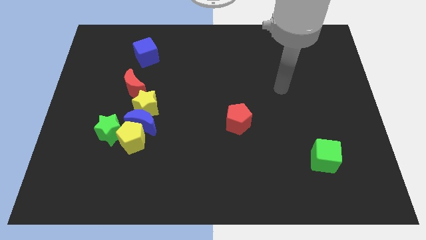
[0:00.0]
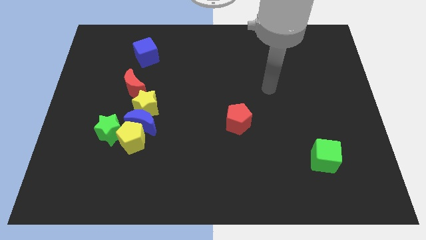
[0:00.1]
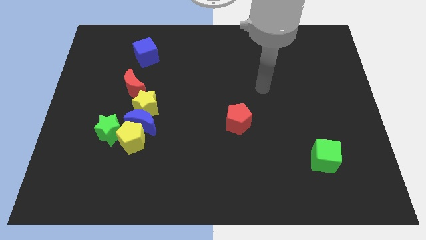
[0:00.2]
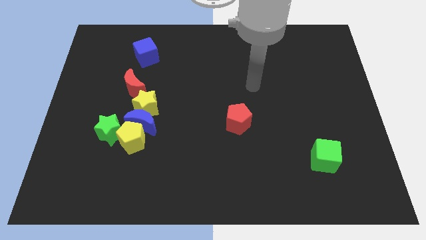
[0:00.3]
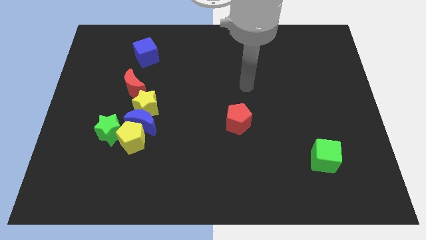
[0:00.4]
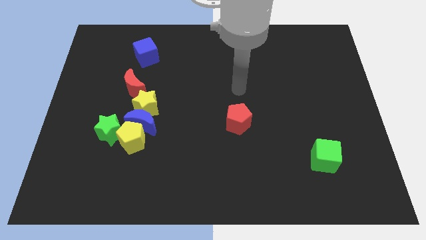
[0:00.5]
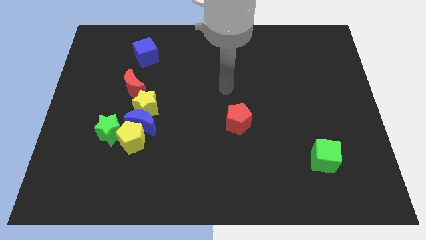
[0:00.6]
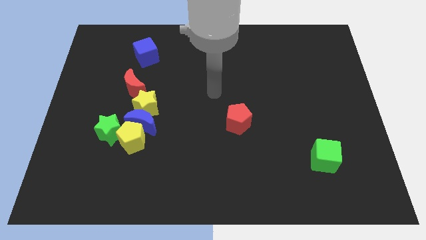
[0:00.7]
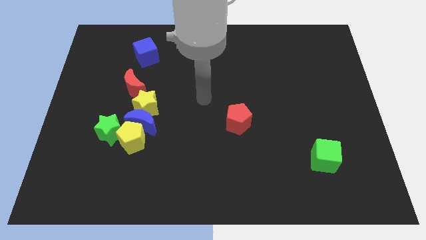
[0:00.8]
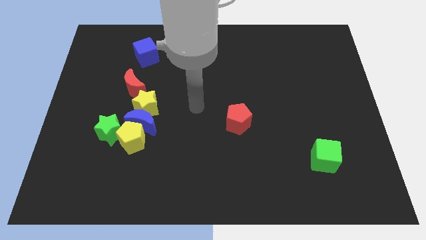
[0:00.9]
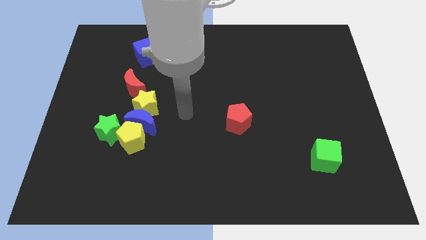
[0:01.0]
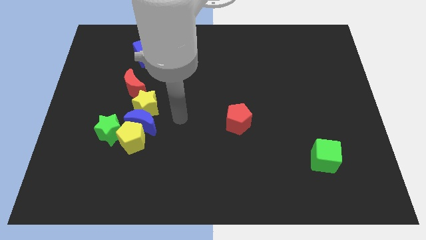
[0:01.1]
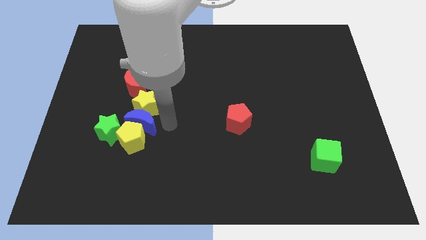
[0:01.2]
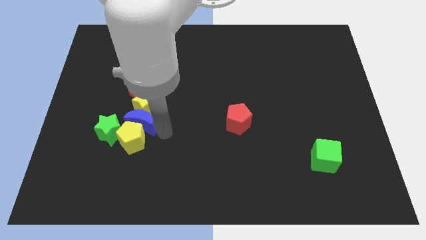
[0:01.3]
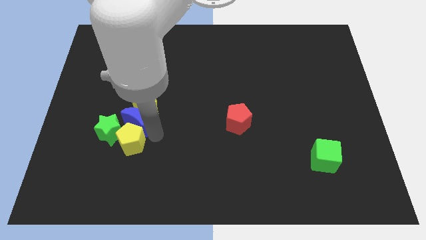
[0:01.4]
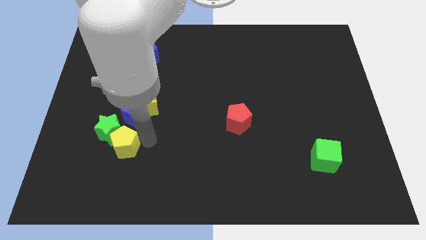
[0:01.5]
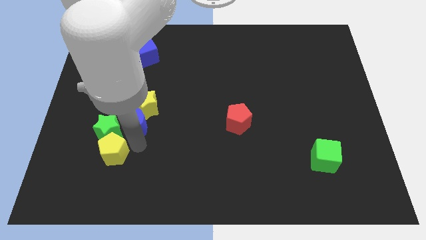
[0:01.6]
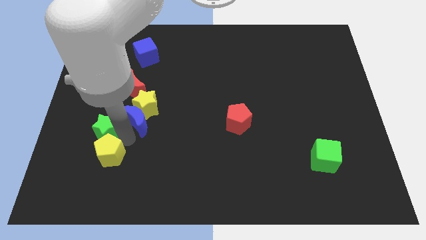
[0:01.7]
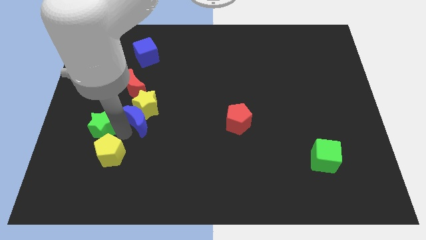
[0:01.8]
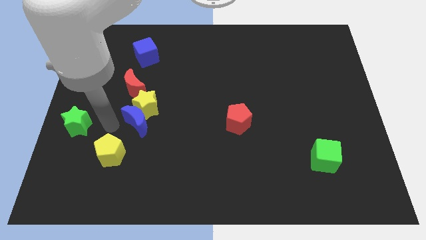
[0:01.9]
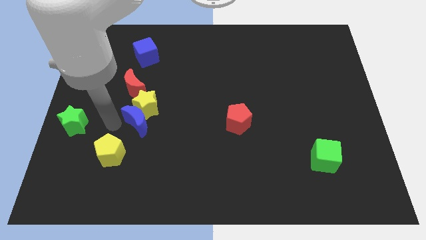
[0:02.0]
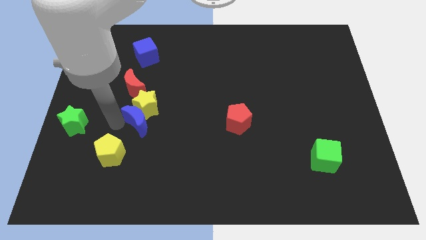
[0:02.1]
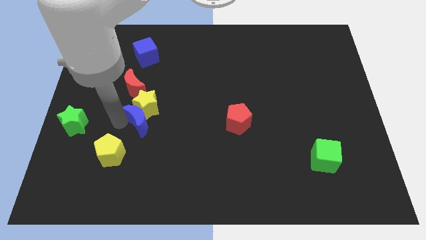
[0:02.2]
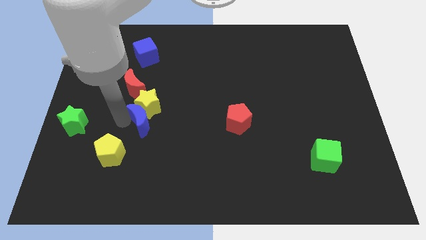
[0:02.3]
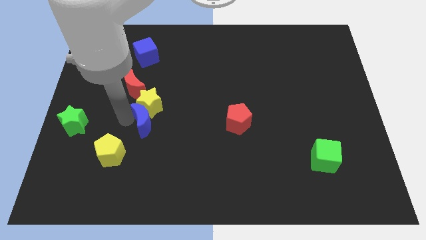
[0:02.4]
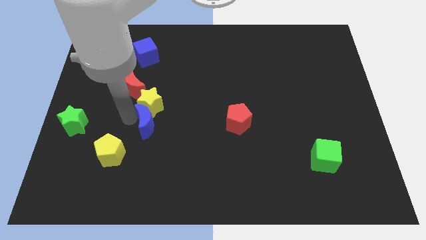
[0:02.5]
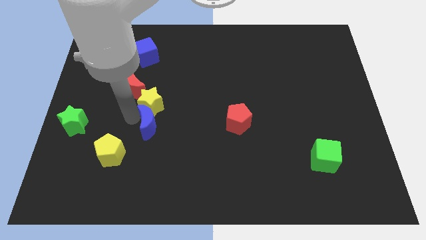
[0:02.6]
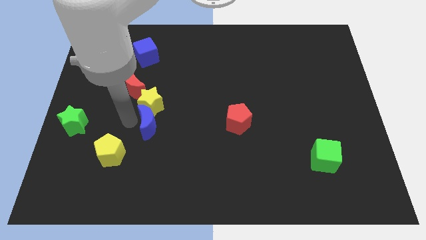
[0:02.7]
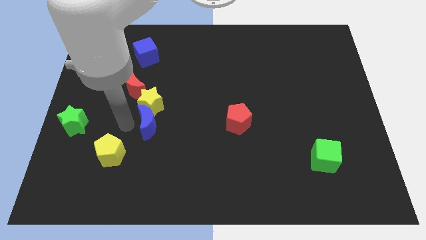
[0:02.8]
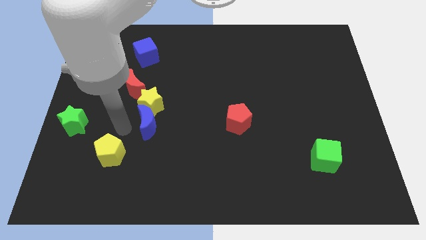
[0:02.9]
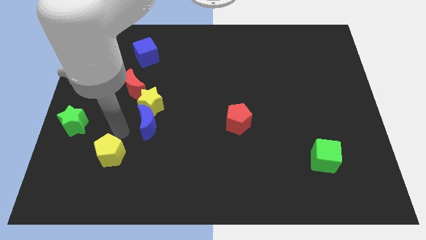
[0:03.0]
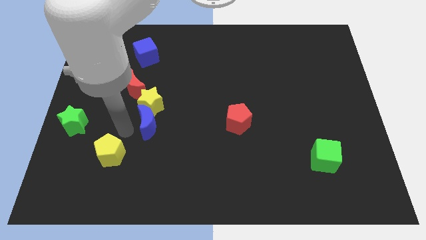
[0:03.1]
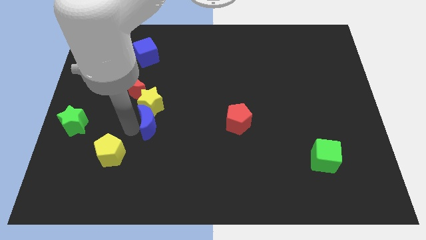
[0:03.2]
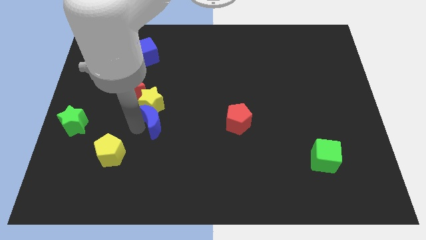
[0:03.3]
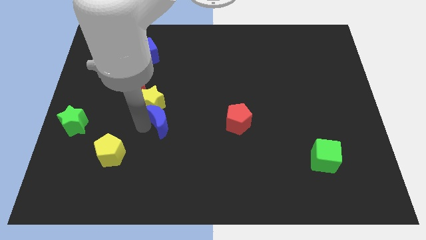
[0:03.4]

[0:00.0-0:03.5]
separate the blue moon from the yellow pentagon, yellow star, and green star

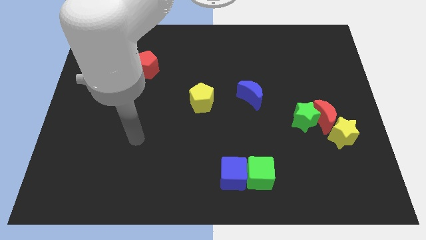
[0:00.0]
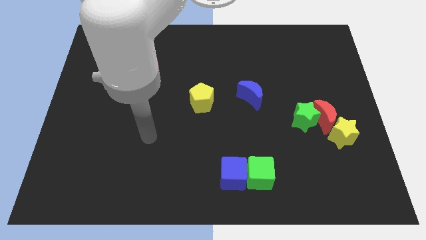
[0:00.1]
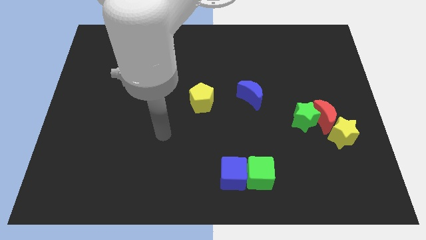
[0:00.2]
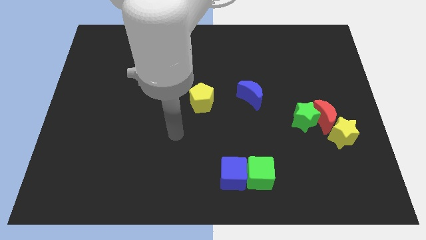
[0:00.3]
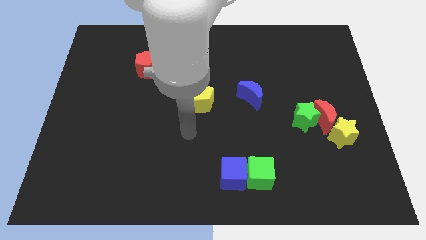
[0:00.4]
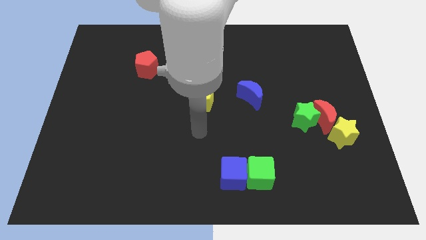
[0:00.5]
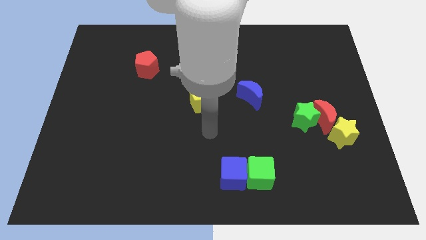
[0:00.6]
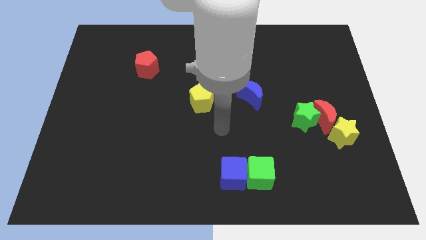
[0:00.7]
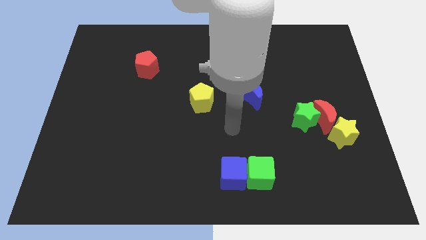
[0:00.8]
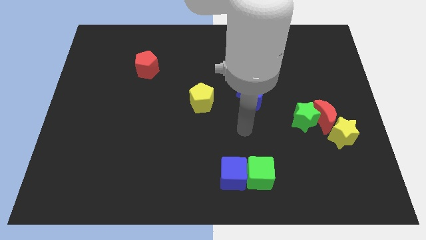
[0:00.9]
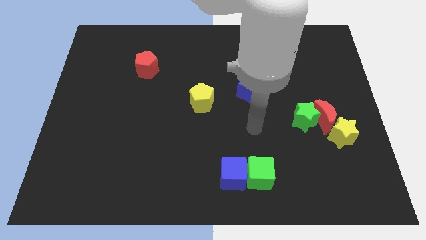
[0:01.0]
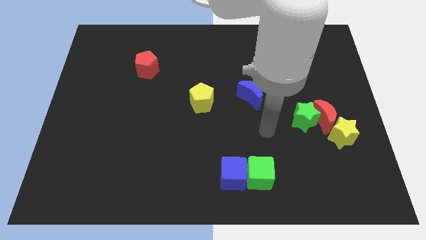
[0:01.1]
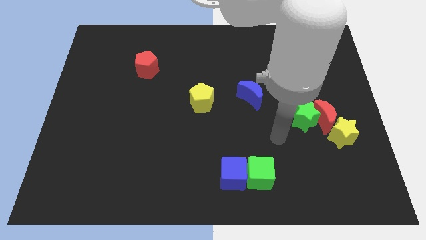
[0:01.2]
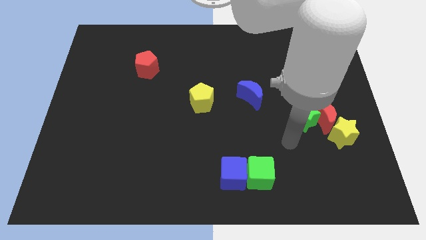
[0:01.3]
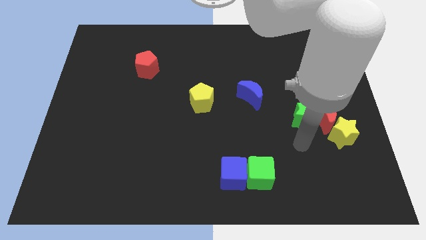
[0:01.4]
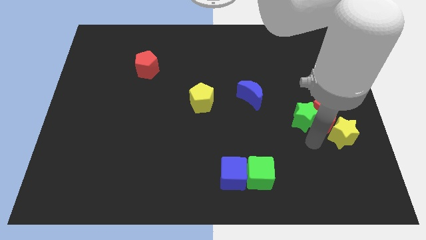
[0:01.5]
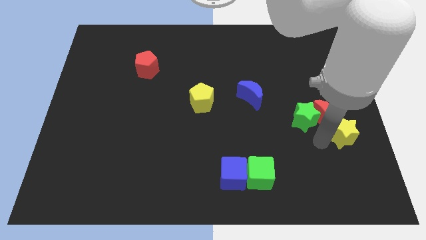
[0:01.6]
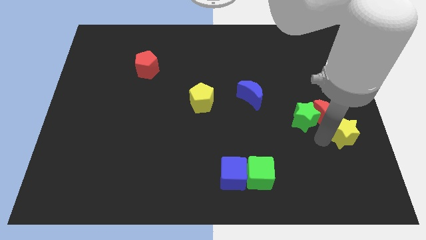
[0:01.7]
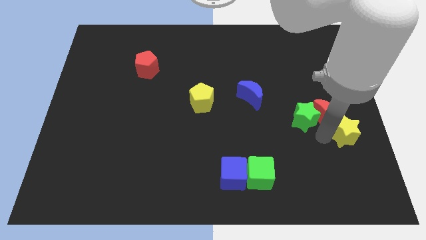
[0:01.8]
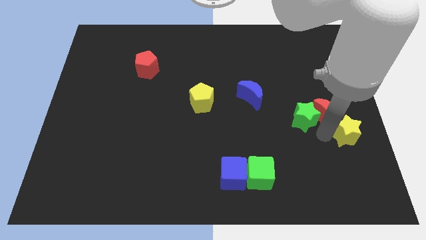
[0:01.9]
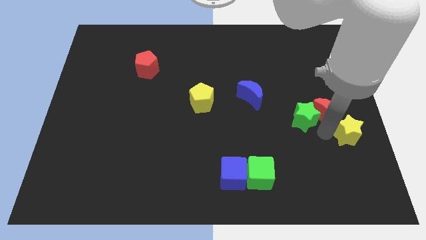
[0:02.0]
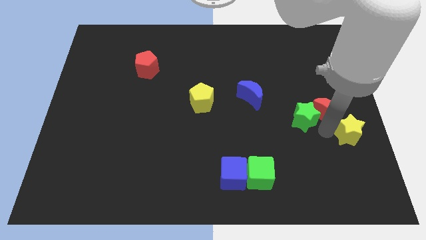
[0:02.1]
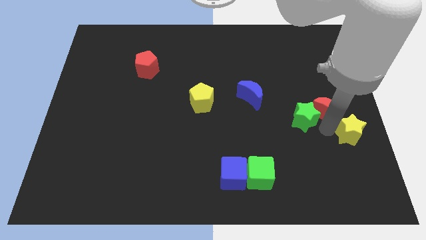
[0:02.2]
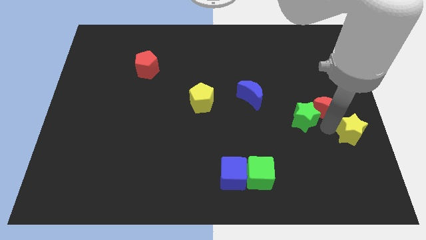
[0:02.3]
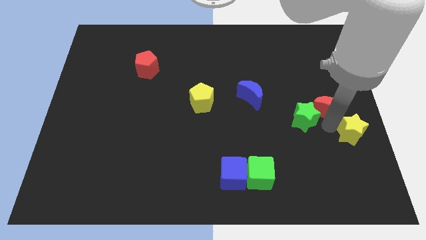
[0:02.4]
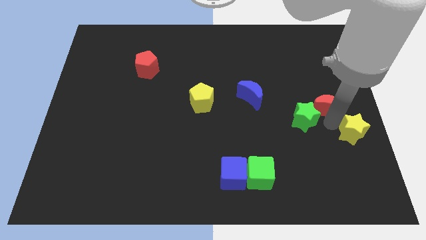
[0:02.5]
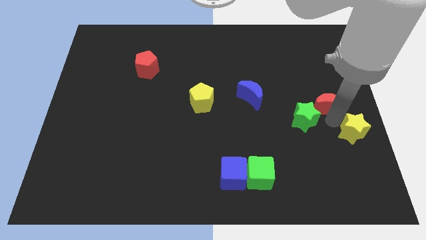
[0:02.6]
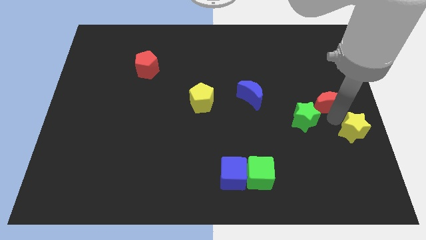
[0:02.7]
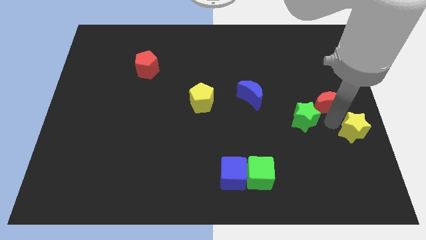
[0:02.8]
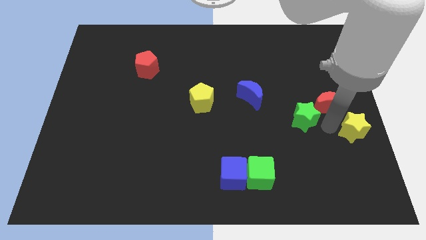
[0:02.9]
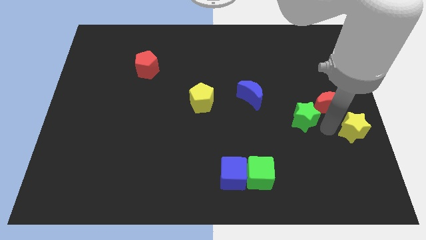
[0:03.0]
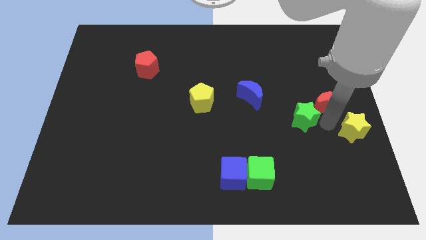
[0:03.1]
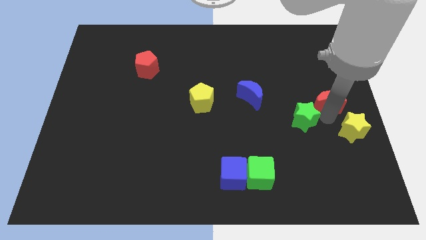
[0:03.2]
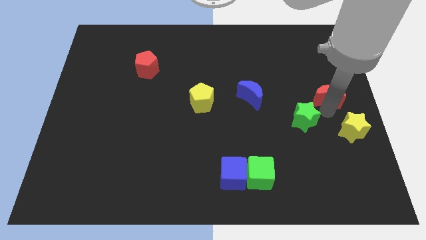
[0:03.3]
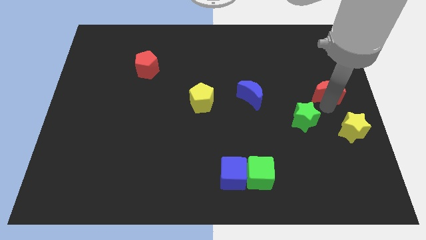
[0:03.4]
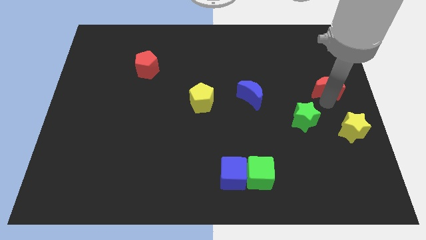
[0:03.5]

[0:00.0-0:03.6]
move the red moon away from the green star and yellow star

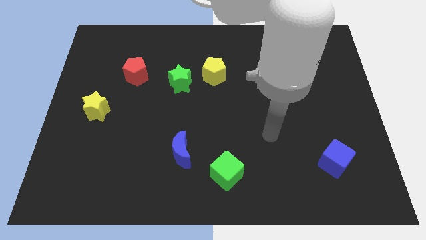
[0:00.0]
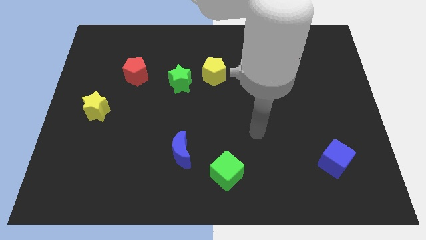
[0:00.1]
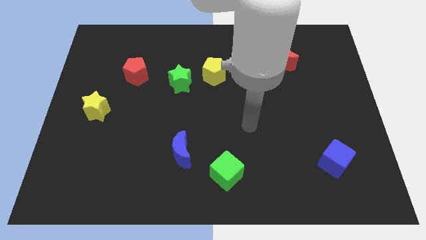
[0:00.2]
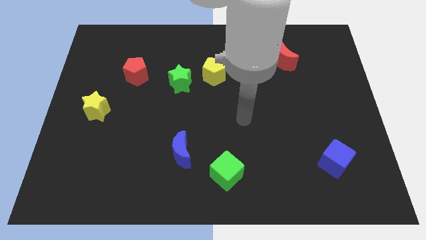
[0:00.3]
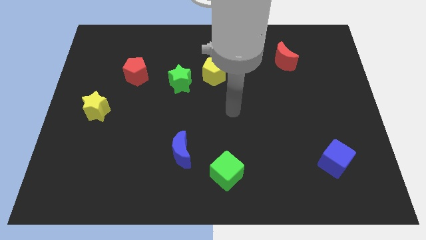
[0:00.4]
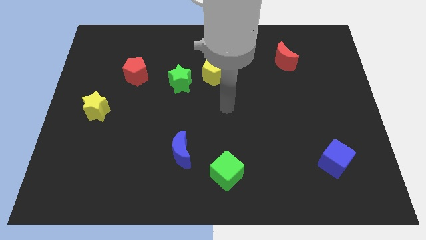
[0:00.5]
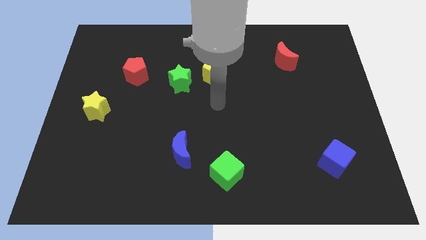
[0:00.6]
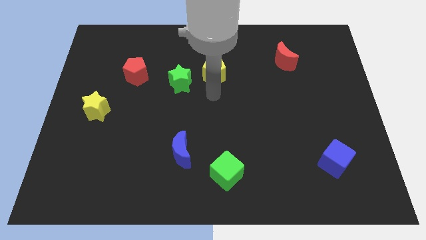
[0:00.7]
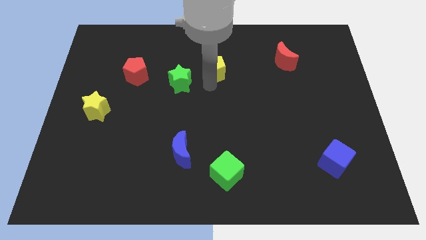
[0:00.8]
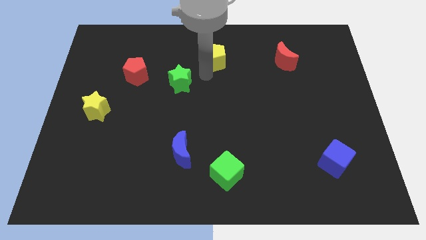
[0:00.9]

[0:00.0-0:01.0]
pull the green star apart from the yellow pentagon

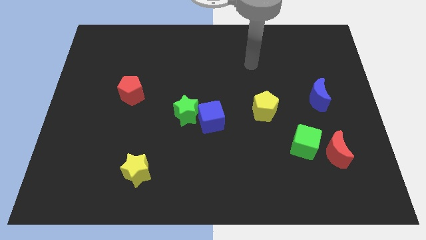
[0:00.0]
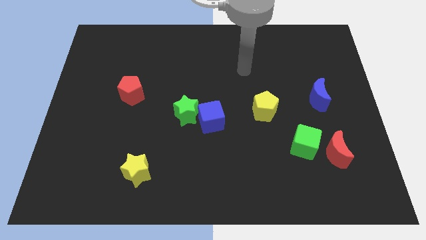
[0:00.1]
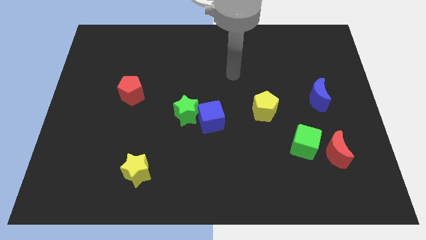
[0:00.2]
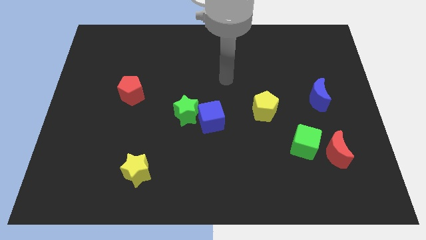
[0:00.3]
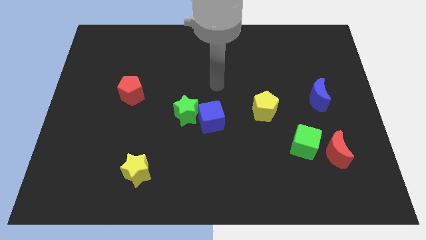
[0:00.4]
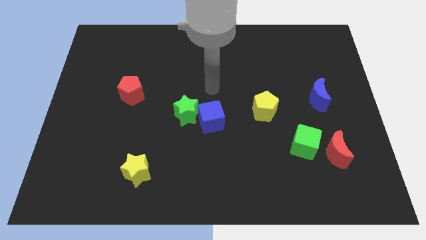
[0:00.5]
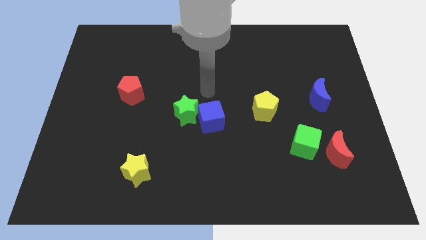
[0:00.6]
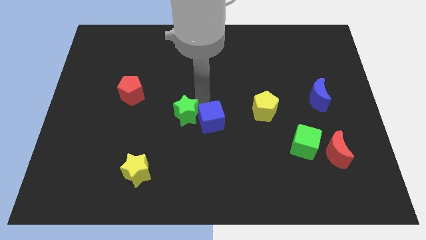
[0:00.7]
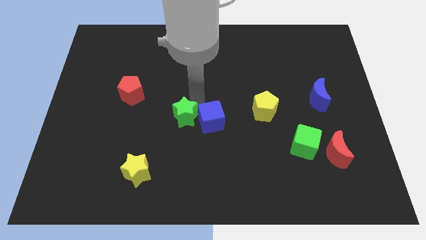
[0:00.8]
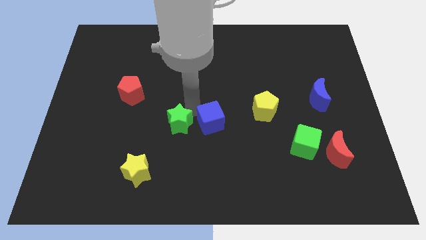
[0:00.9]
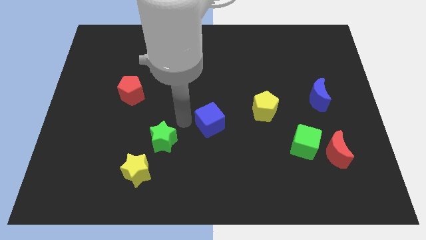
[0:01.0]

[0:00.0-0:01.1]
move the blue cube away from the green star
